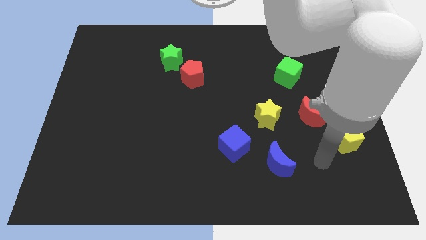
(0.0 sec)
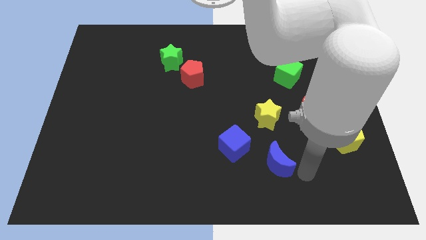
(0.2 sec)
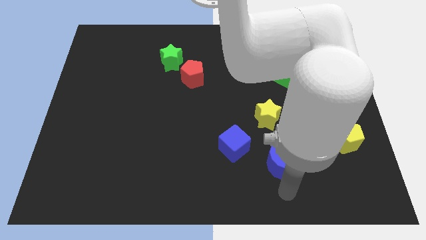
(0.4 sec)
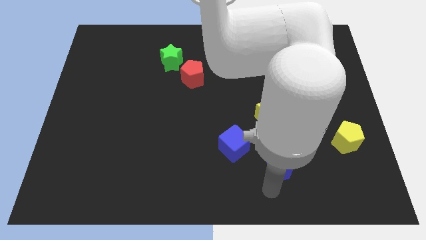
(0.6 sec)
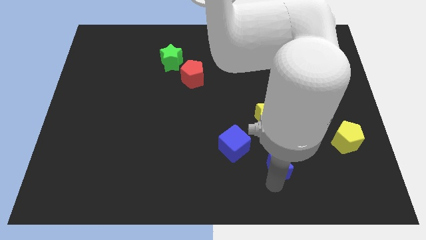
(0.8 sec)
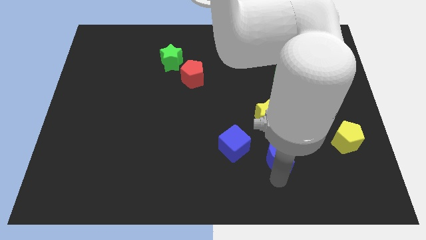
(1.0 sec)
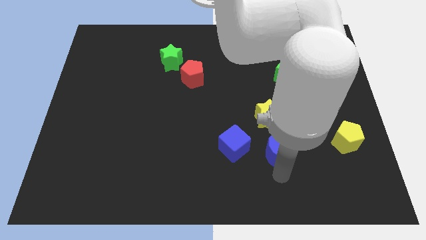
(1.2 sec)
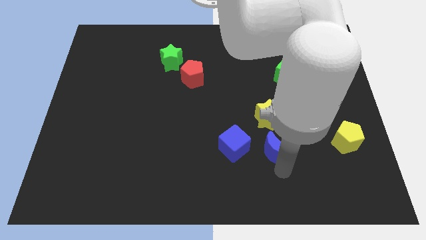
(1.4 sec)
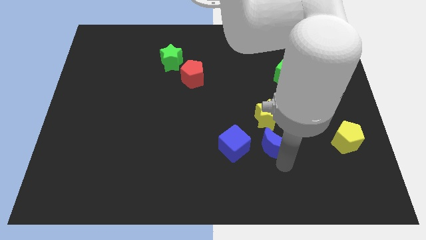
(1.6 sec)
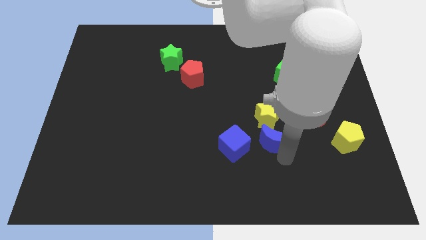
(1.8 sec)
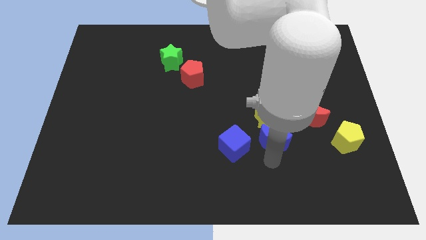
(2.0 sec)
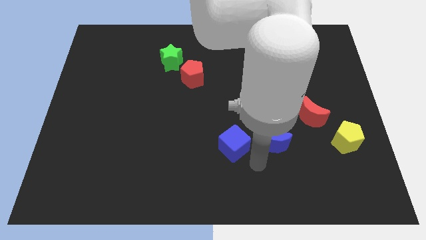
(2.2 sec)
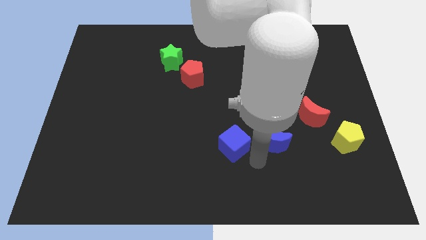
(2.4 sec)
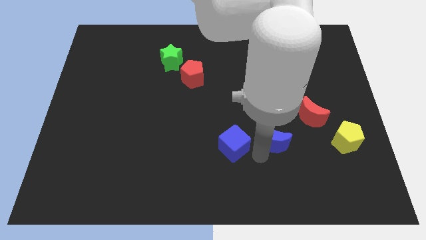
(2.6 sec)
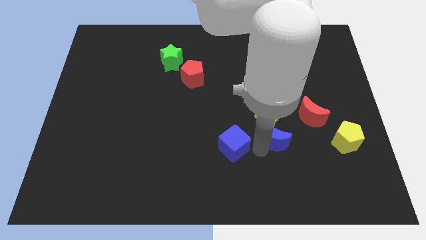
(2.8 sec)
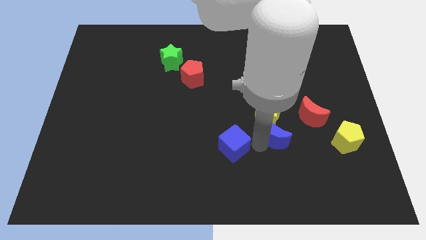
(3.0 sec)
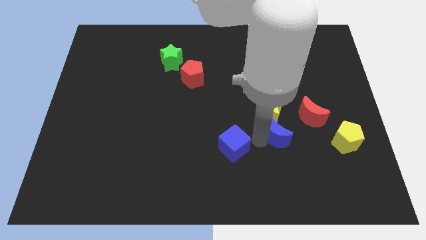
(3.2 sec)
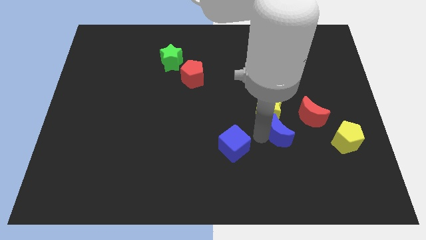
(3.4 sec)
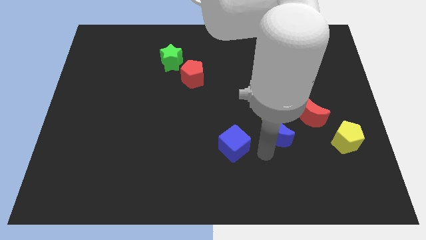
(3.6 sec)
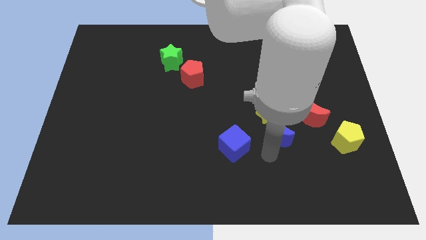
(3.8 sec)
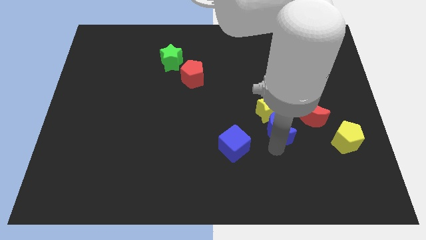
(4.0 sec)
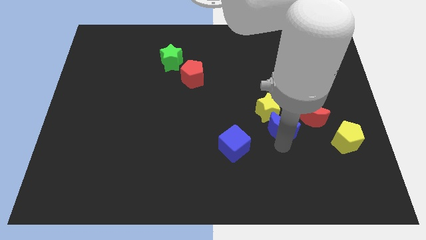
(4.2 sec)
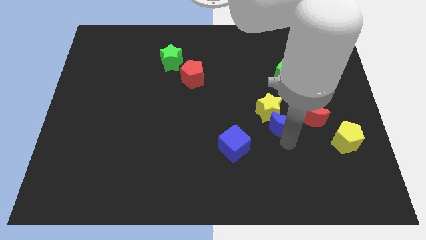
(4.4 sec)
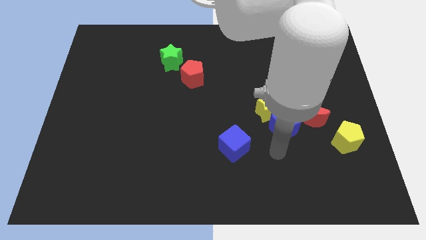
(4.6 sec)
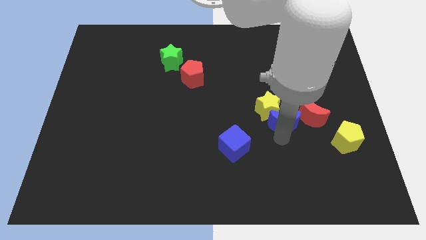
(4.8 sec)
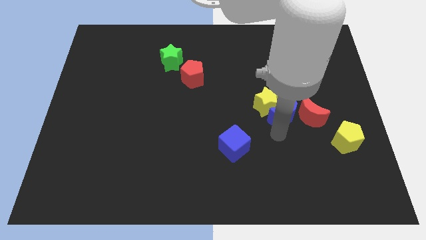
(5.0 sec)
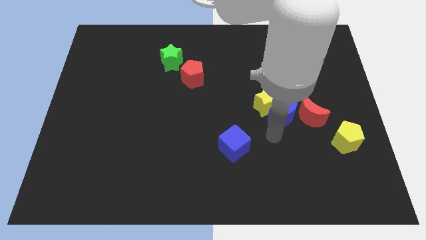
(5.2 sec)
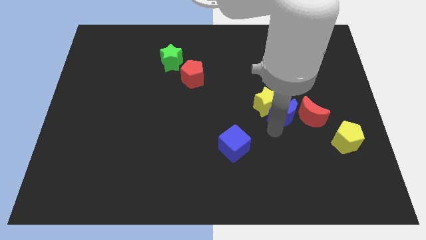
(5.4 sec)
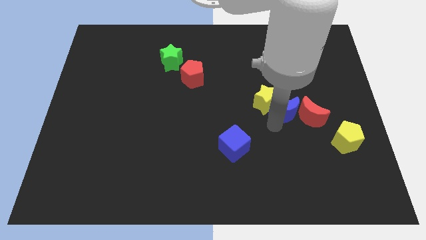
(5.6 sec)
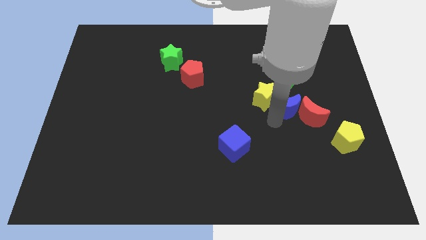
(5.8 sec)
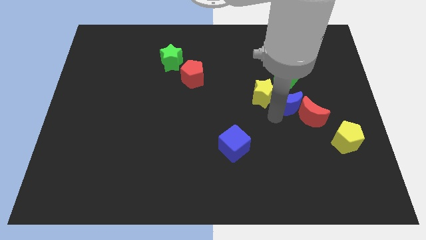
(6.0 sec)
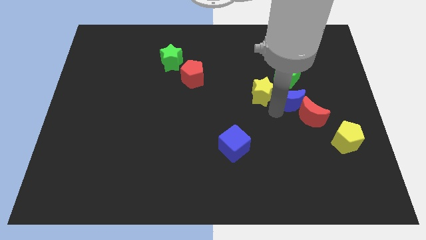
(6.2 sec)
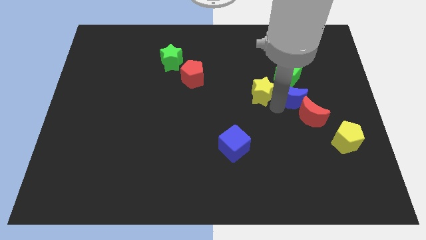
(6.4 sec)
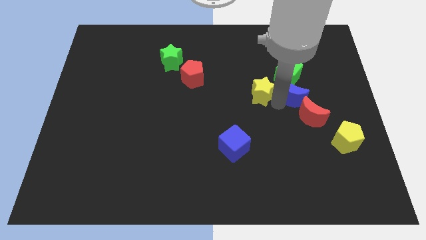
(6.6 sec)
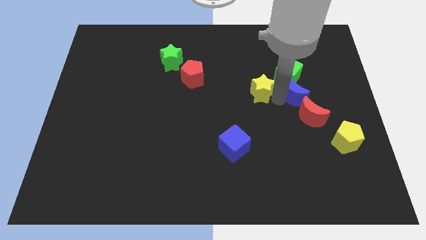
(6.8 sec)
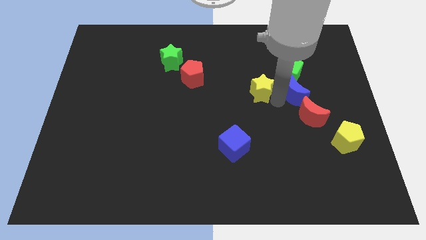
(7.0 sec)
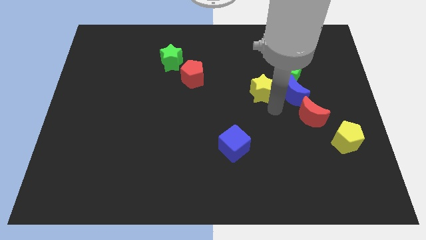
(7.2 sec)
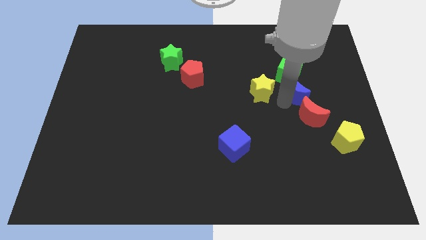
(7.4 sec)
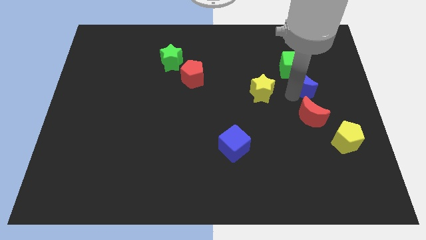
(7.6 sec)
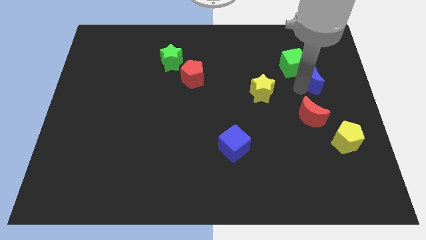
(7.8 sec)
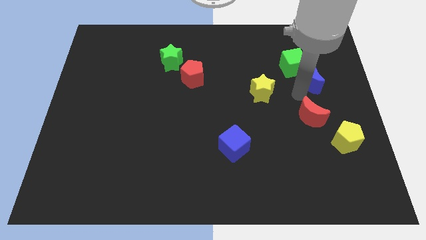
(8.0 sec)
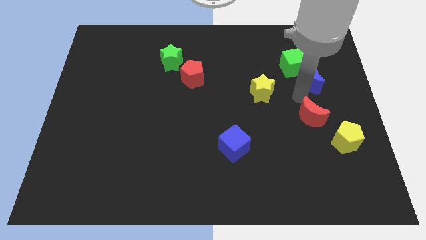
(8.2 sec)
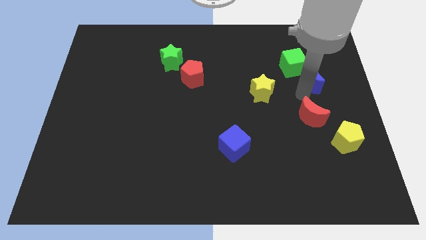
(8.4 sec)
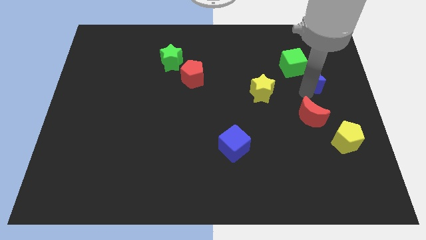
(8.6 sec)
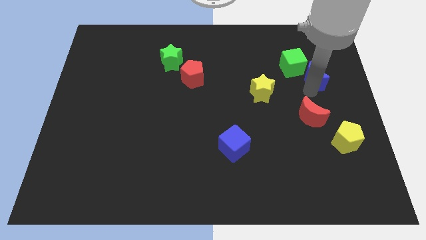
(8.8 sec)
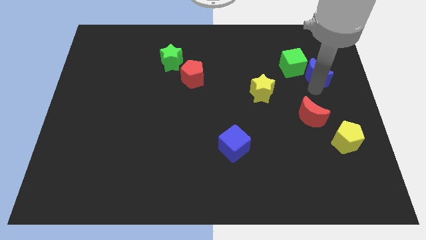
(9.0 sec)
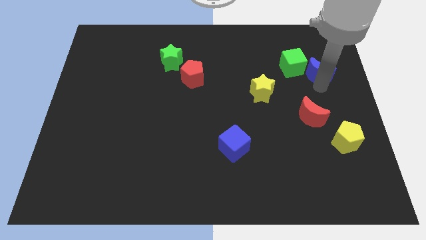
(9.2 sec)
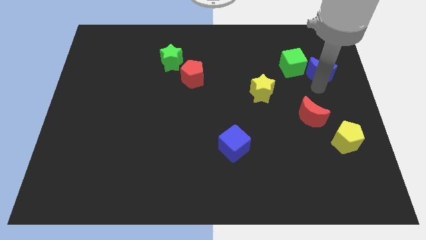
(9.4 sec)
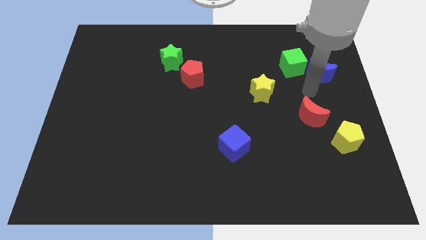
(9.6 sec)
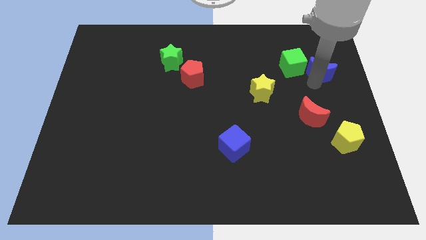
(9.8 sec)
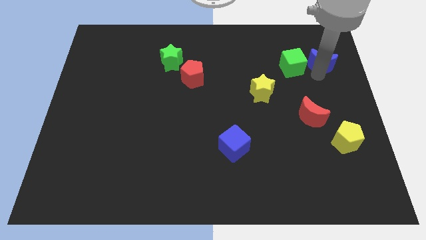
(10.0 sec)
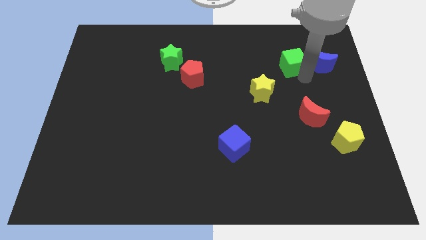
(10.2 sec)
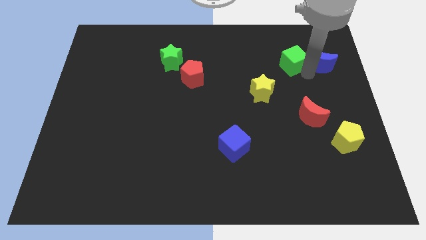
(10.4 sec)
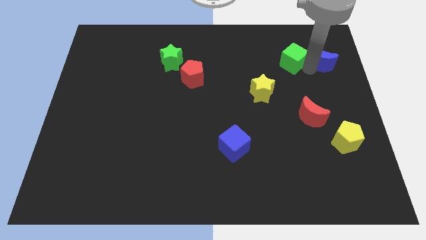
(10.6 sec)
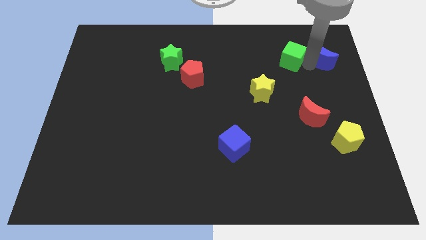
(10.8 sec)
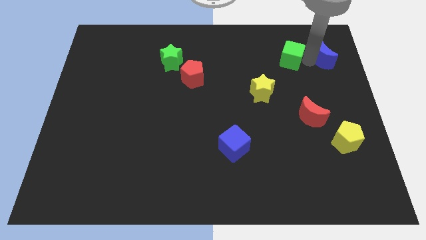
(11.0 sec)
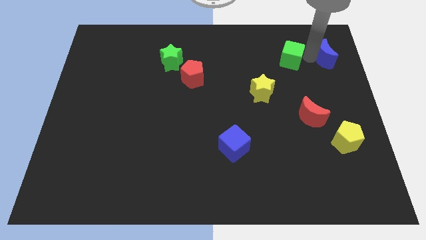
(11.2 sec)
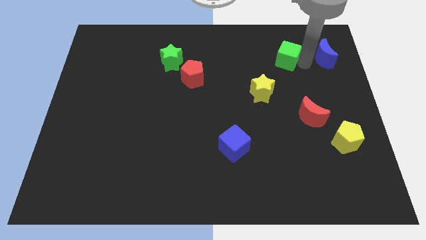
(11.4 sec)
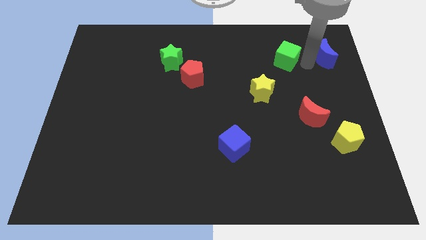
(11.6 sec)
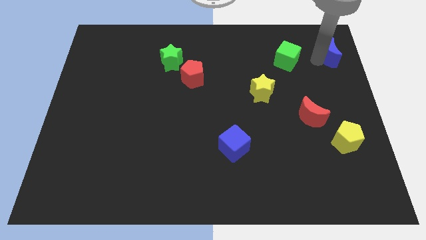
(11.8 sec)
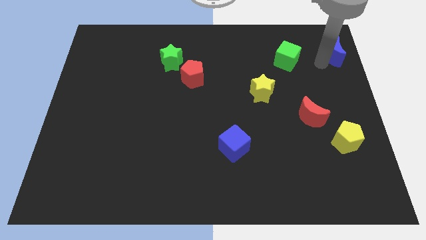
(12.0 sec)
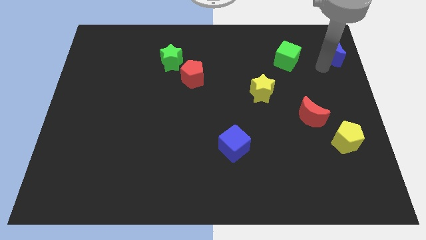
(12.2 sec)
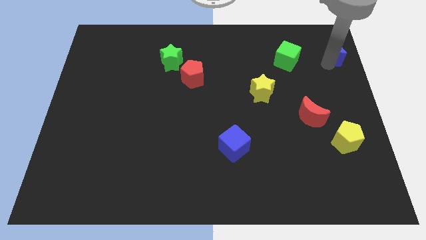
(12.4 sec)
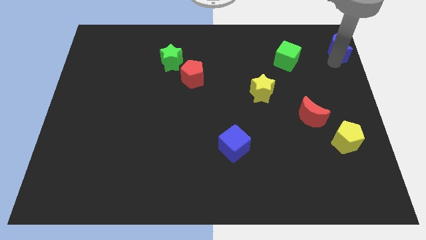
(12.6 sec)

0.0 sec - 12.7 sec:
move the blue moon to the top right

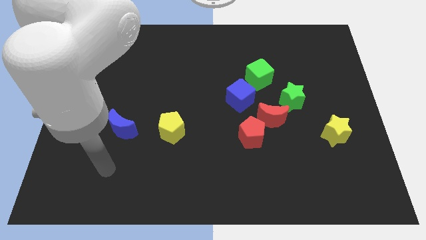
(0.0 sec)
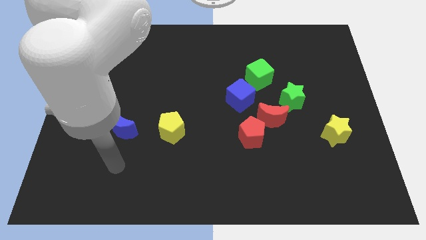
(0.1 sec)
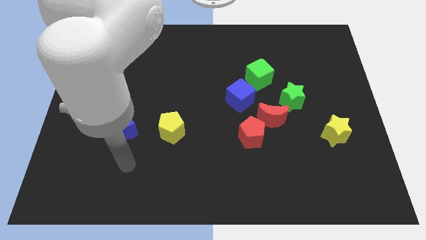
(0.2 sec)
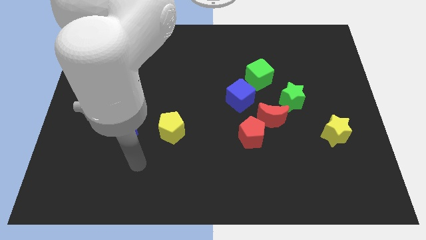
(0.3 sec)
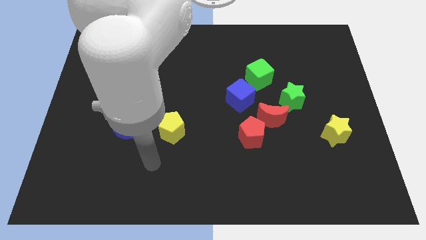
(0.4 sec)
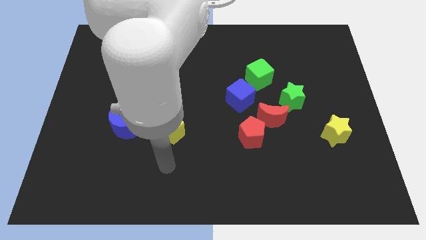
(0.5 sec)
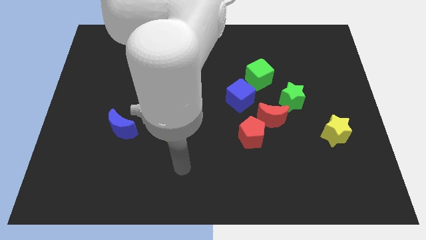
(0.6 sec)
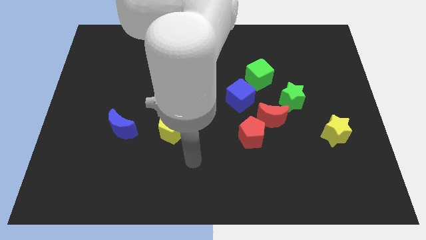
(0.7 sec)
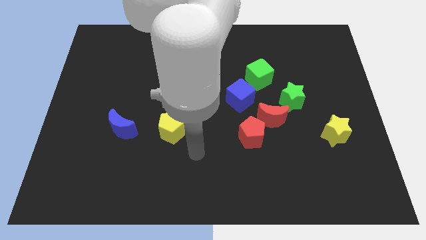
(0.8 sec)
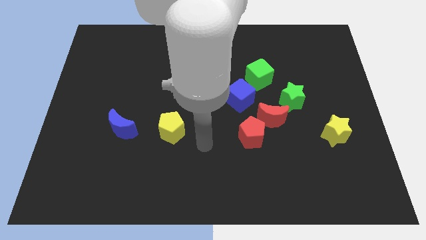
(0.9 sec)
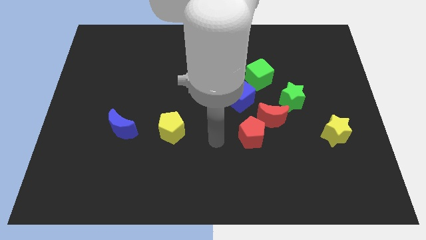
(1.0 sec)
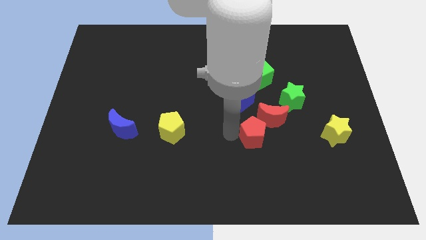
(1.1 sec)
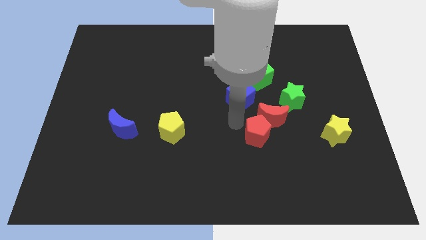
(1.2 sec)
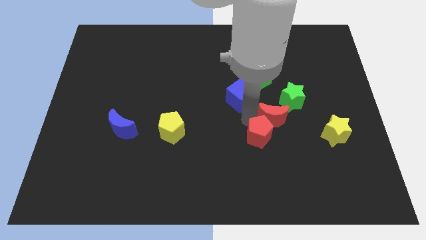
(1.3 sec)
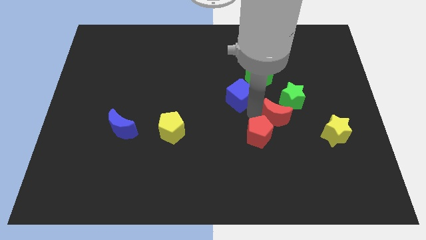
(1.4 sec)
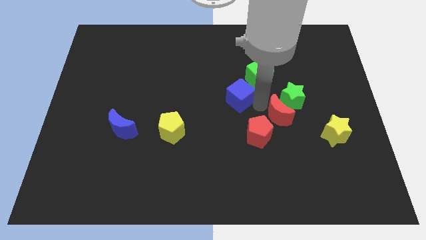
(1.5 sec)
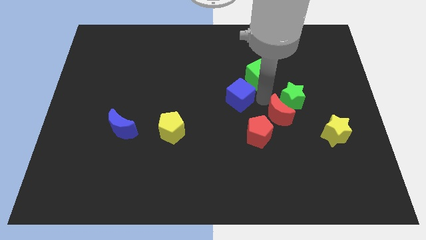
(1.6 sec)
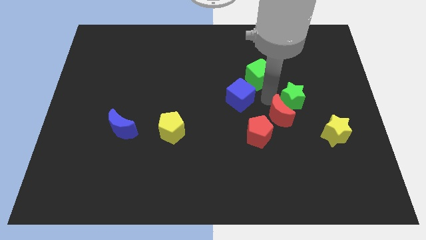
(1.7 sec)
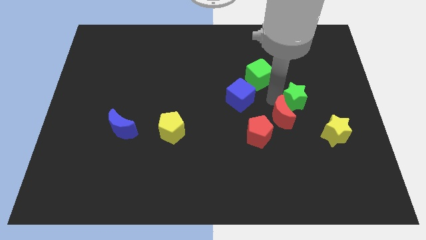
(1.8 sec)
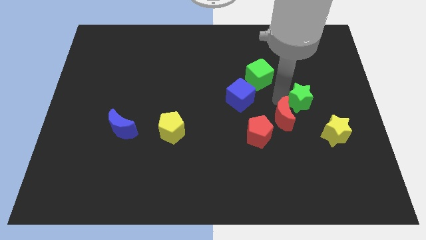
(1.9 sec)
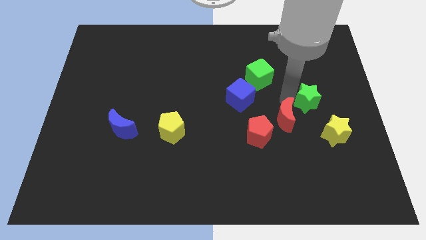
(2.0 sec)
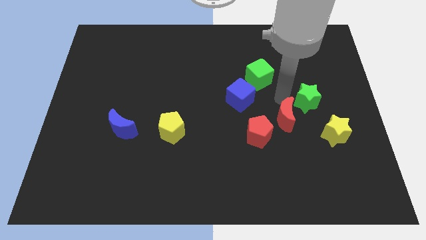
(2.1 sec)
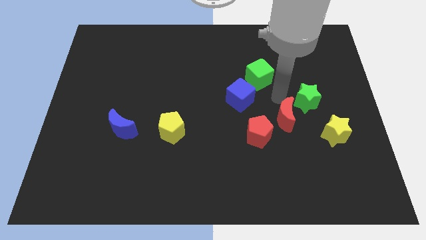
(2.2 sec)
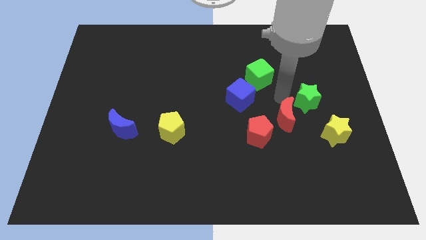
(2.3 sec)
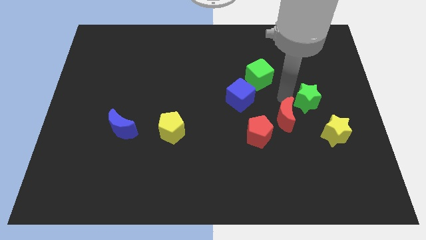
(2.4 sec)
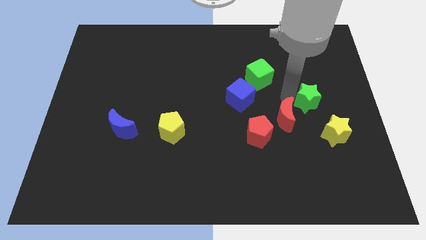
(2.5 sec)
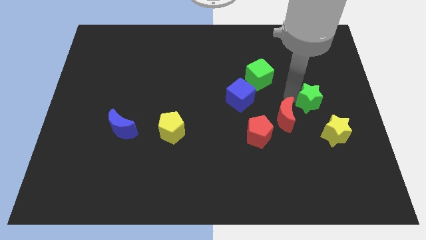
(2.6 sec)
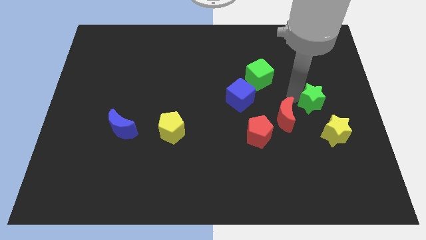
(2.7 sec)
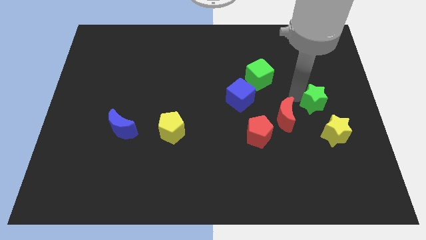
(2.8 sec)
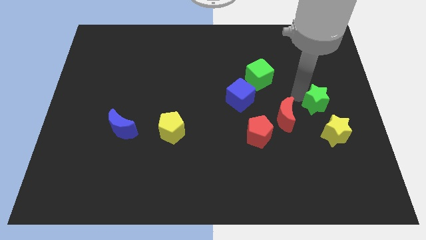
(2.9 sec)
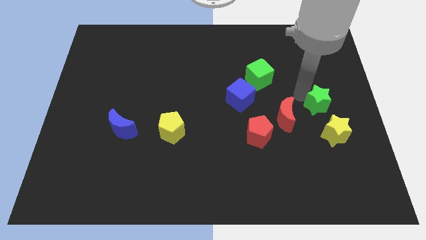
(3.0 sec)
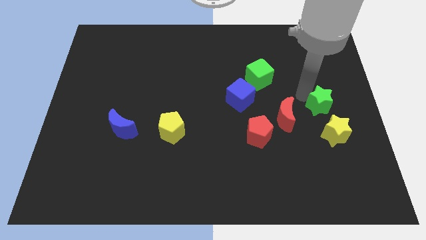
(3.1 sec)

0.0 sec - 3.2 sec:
move the green star to the right side
